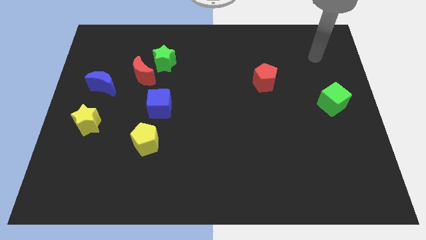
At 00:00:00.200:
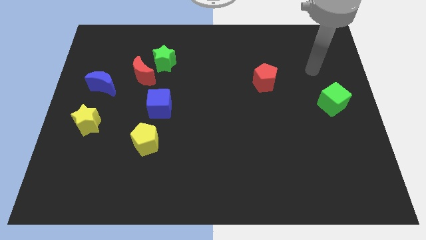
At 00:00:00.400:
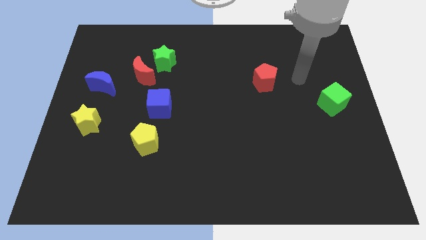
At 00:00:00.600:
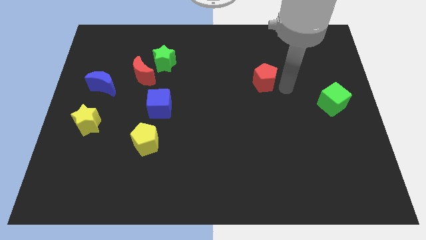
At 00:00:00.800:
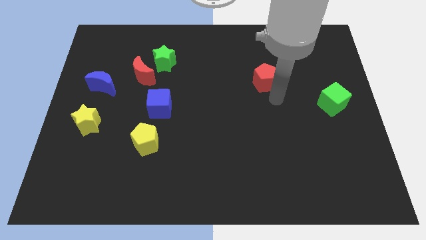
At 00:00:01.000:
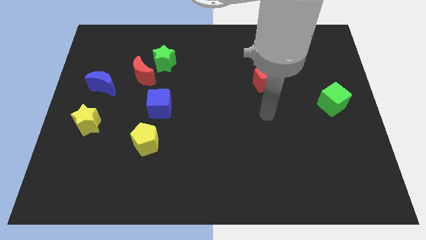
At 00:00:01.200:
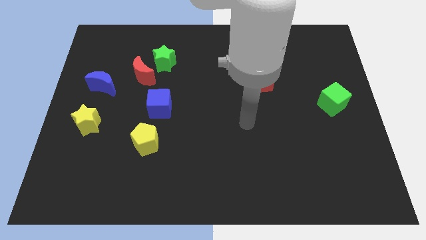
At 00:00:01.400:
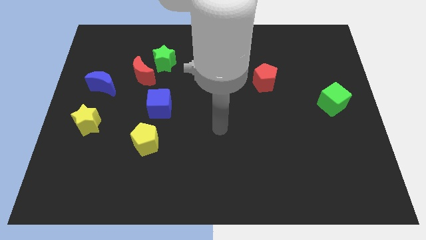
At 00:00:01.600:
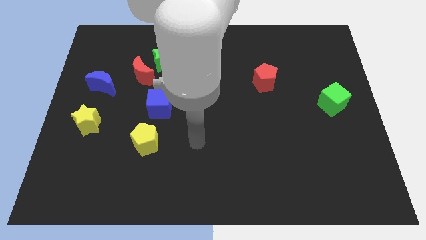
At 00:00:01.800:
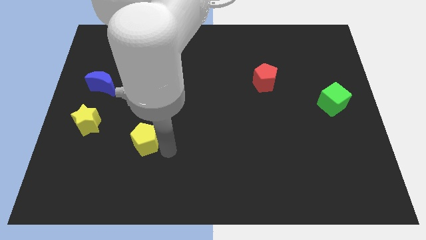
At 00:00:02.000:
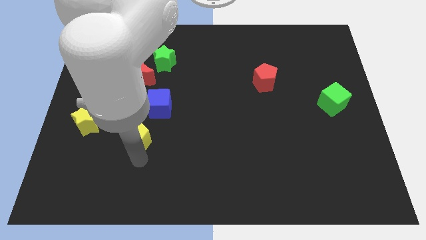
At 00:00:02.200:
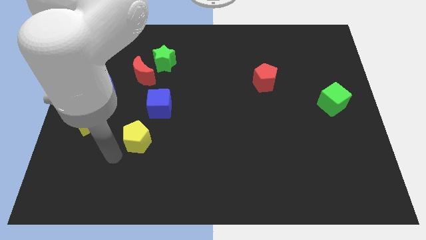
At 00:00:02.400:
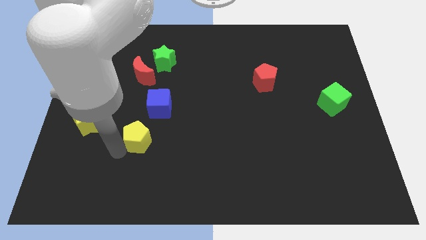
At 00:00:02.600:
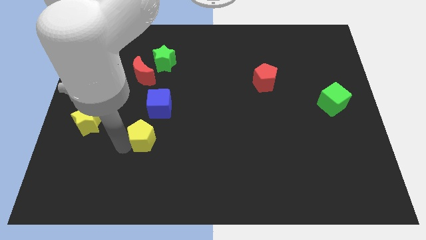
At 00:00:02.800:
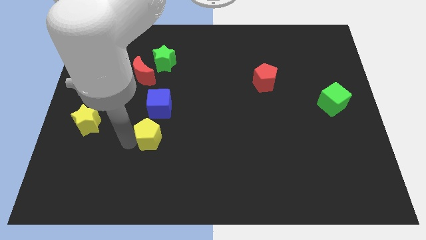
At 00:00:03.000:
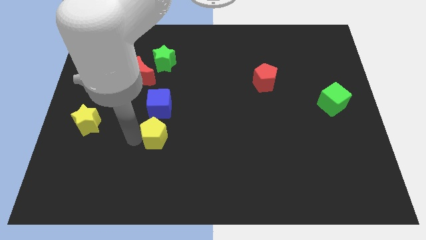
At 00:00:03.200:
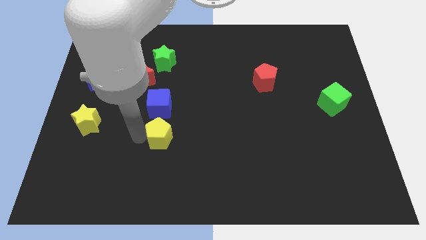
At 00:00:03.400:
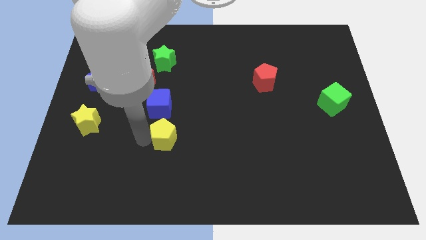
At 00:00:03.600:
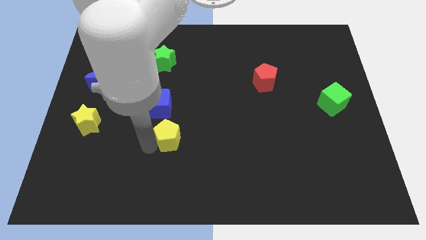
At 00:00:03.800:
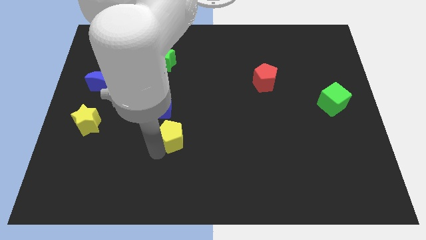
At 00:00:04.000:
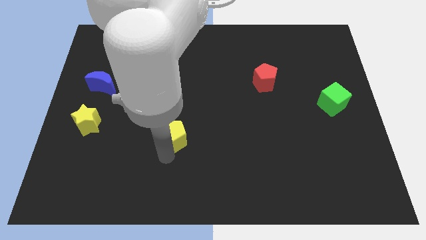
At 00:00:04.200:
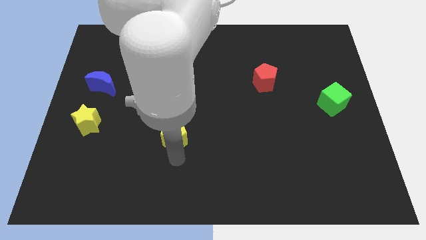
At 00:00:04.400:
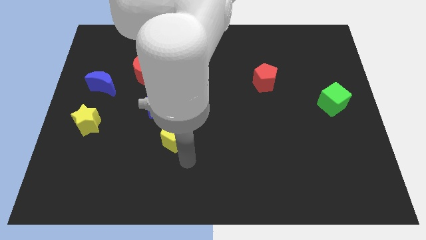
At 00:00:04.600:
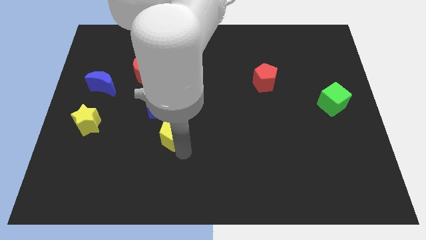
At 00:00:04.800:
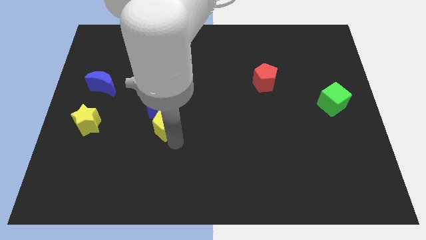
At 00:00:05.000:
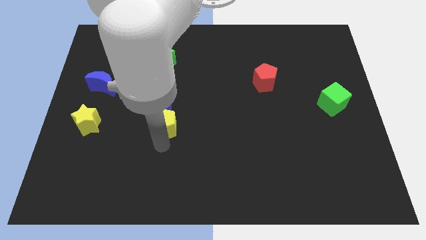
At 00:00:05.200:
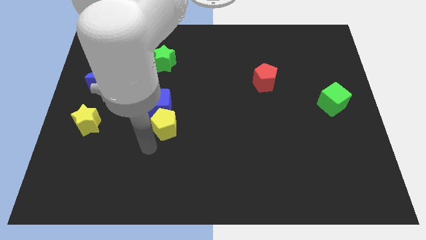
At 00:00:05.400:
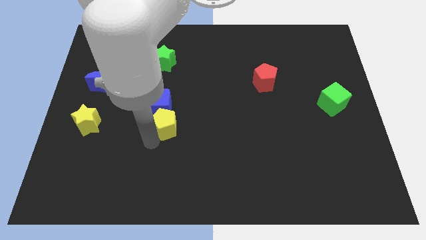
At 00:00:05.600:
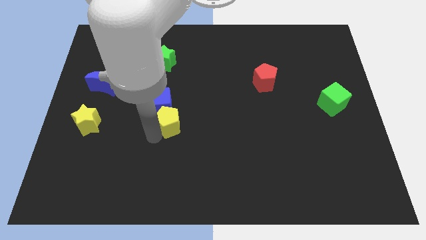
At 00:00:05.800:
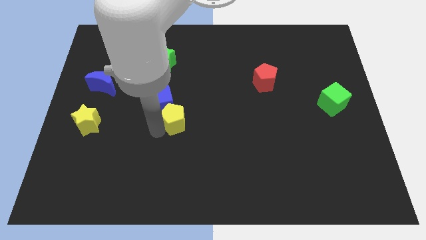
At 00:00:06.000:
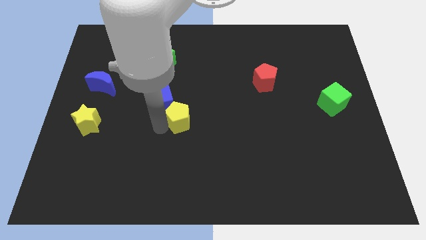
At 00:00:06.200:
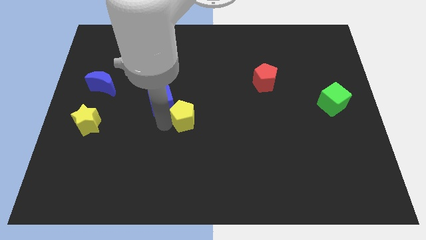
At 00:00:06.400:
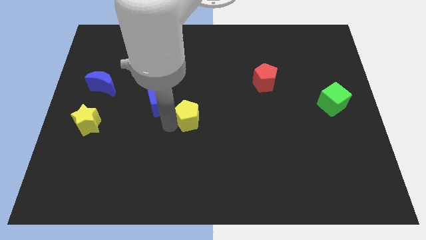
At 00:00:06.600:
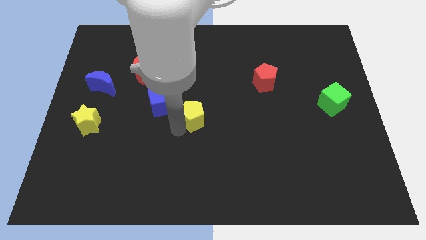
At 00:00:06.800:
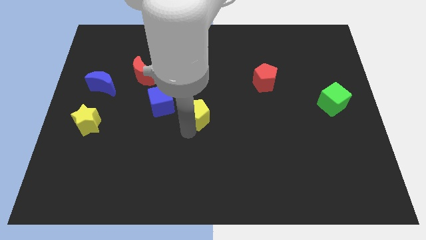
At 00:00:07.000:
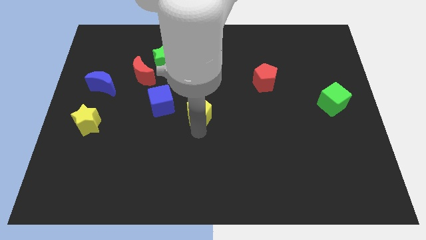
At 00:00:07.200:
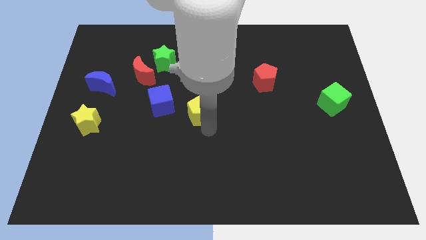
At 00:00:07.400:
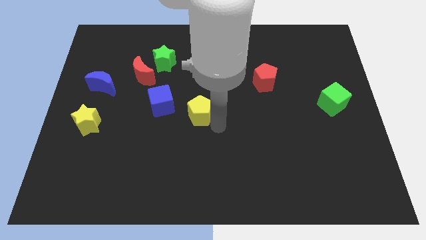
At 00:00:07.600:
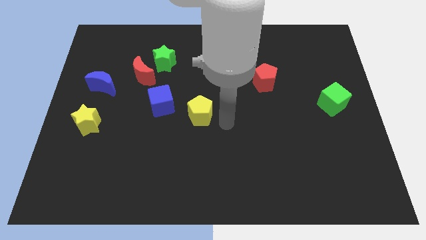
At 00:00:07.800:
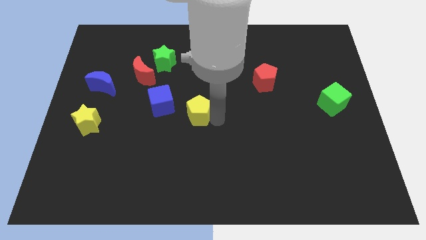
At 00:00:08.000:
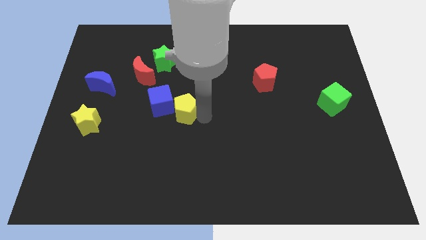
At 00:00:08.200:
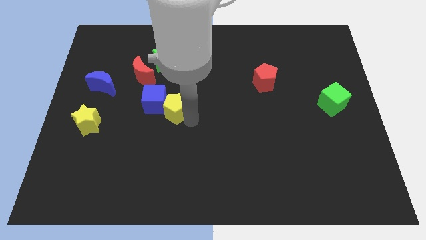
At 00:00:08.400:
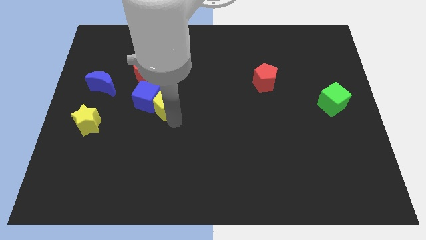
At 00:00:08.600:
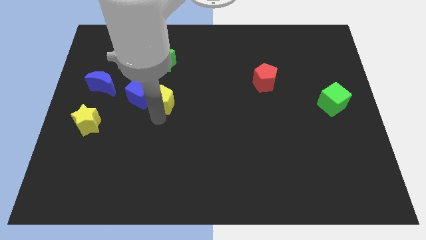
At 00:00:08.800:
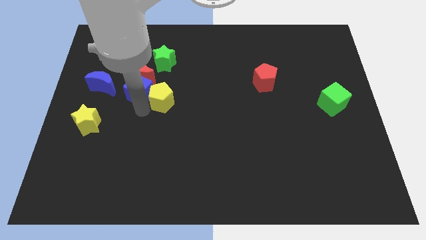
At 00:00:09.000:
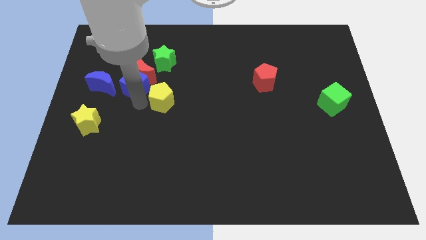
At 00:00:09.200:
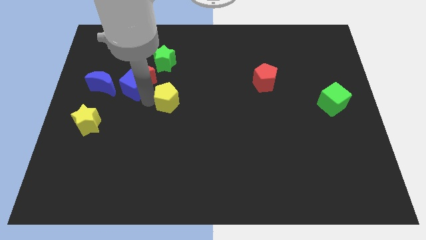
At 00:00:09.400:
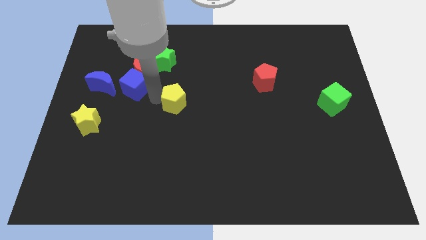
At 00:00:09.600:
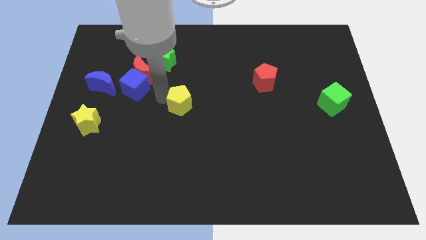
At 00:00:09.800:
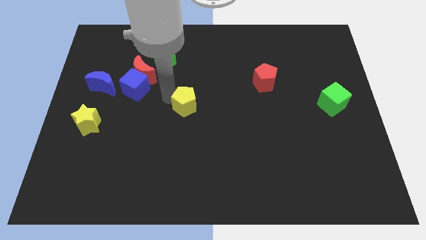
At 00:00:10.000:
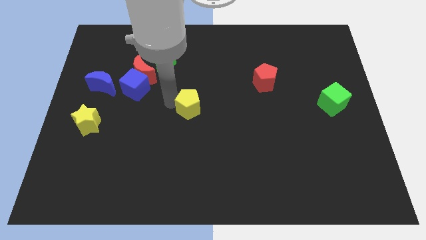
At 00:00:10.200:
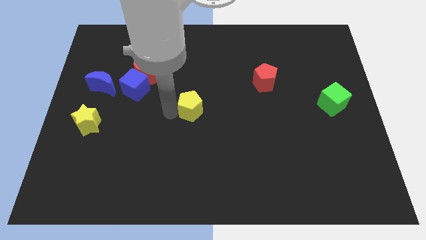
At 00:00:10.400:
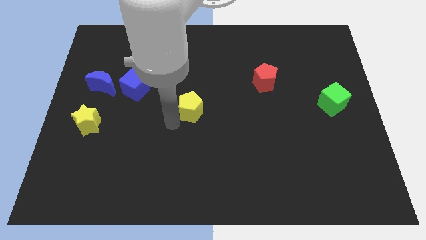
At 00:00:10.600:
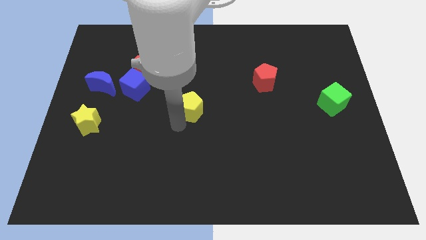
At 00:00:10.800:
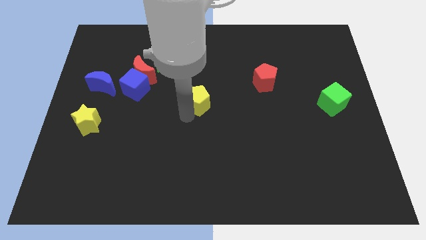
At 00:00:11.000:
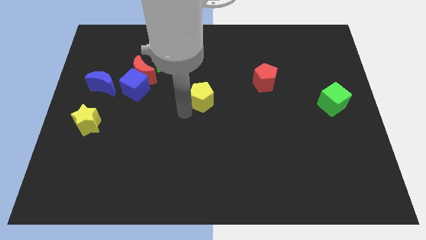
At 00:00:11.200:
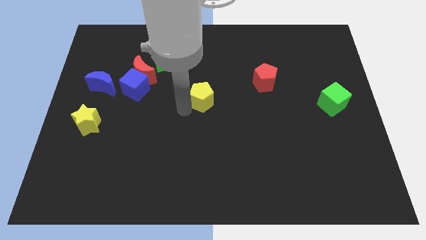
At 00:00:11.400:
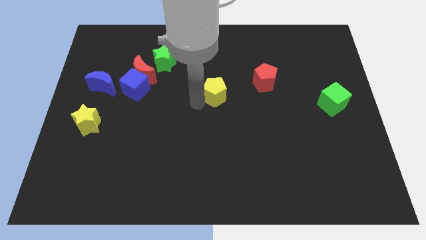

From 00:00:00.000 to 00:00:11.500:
slide the yellow pentagon upwards and right

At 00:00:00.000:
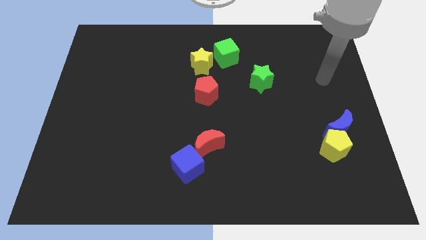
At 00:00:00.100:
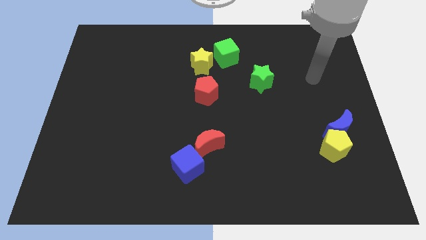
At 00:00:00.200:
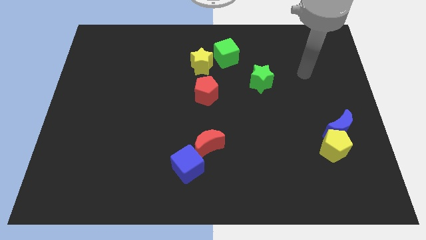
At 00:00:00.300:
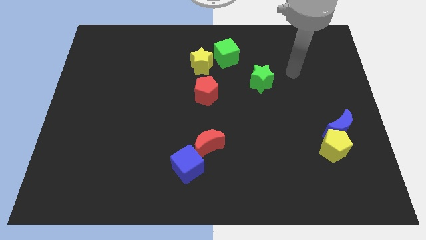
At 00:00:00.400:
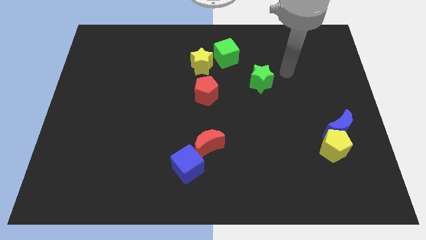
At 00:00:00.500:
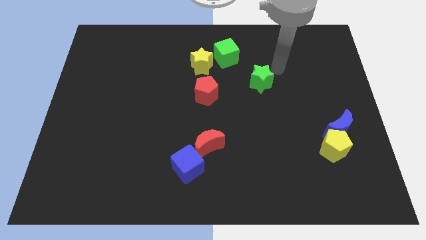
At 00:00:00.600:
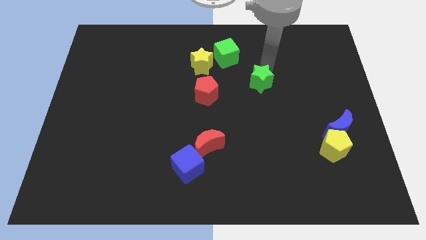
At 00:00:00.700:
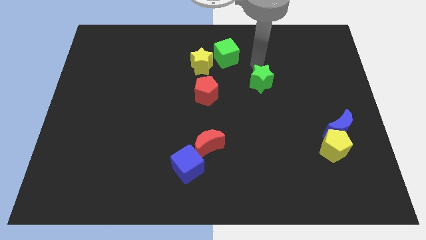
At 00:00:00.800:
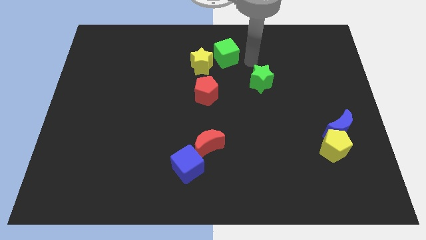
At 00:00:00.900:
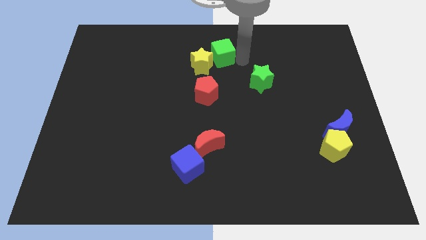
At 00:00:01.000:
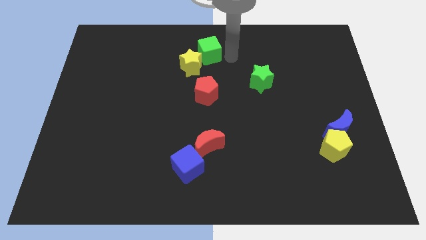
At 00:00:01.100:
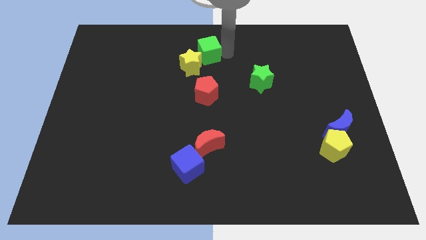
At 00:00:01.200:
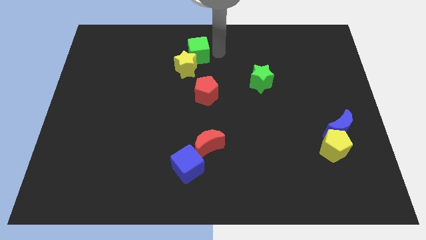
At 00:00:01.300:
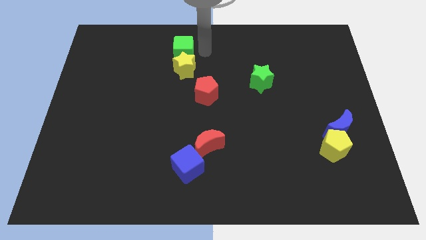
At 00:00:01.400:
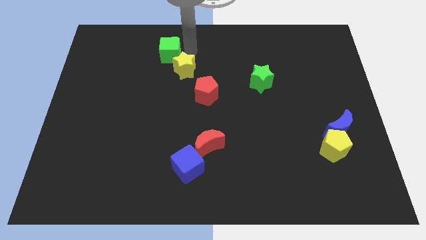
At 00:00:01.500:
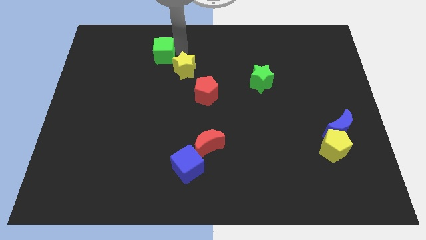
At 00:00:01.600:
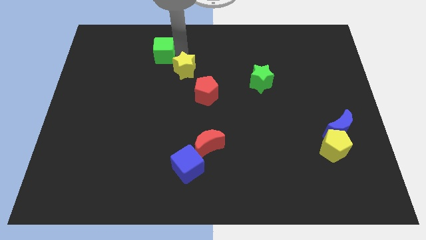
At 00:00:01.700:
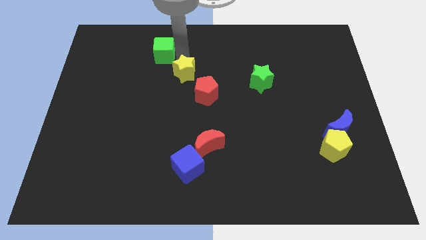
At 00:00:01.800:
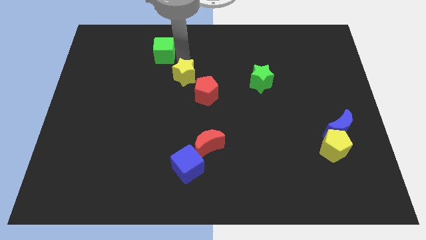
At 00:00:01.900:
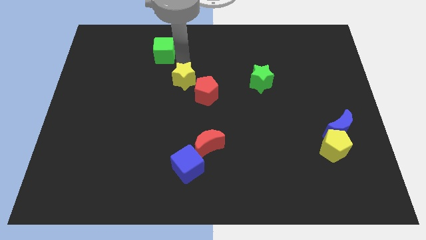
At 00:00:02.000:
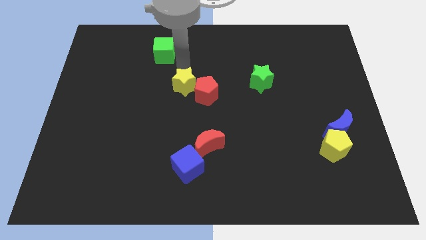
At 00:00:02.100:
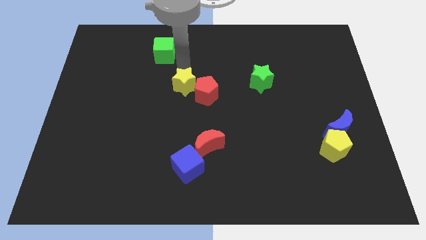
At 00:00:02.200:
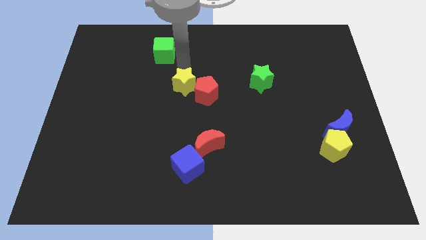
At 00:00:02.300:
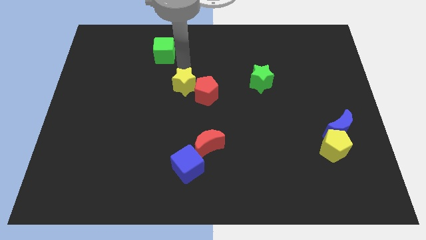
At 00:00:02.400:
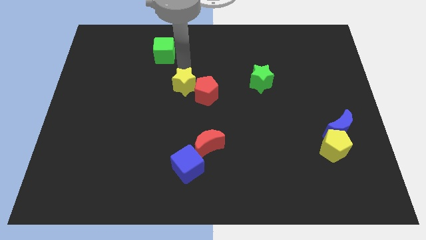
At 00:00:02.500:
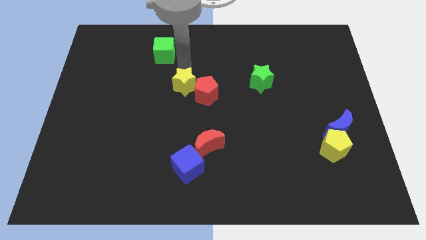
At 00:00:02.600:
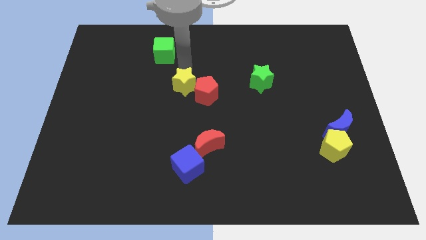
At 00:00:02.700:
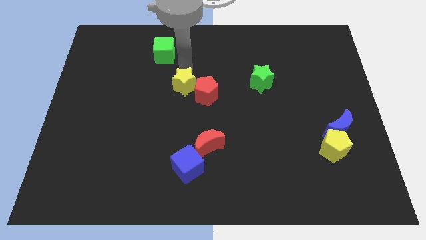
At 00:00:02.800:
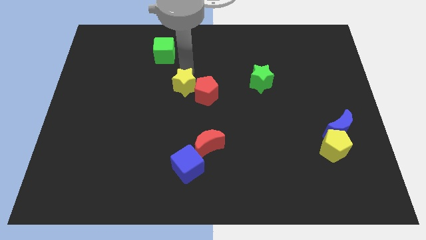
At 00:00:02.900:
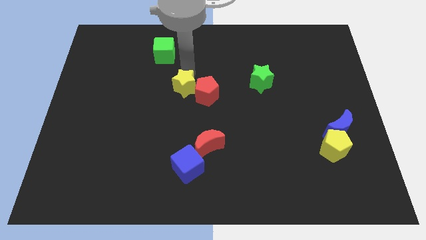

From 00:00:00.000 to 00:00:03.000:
push the yellow star down somewhat
